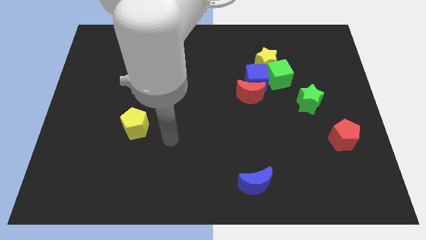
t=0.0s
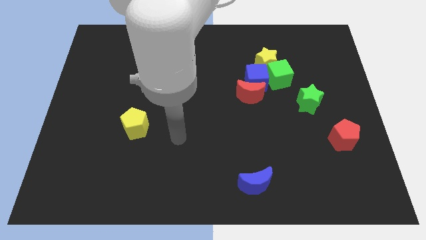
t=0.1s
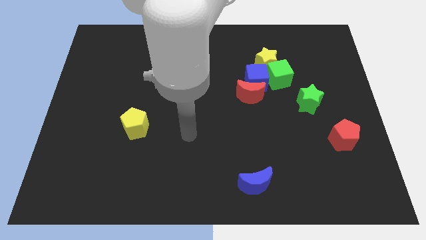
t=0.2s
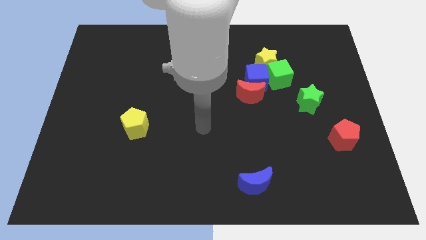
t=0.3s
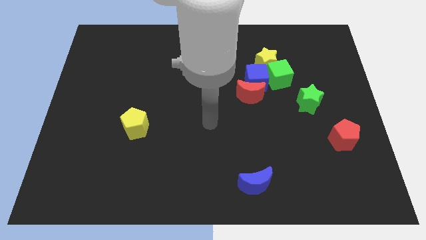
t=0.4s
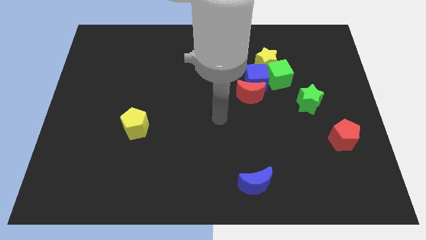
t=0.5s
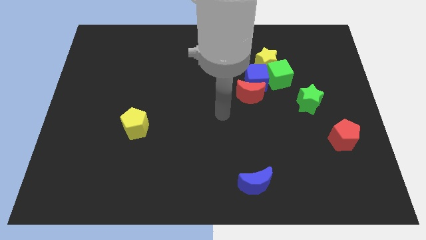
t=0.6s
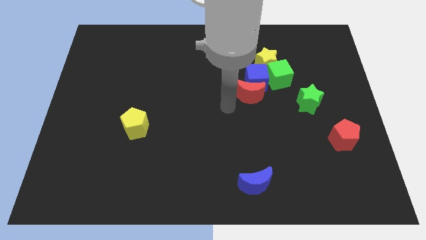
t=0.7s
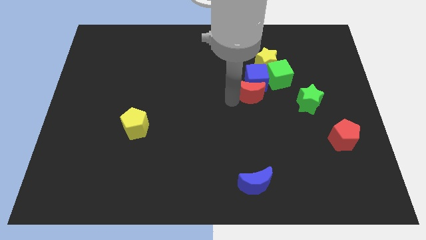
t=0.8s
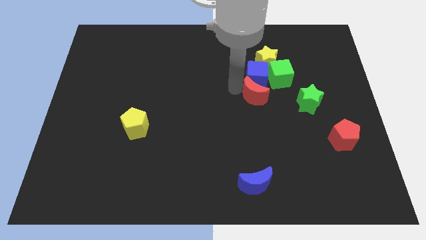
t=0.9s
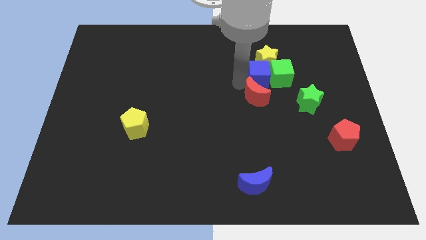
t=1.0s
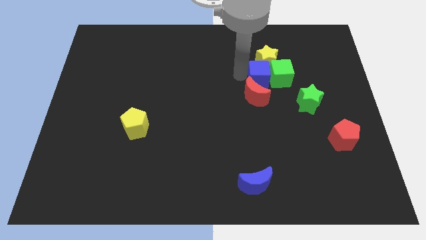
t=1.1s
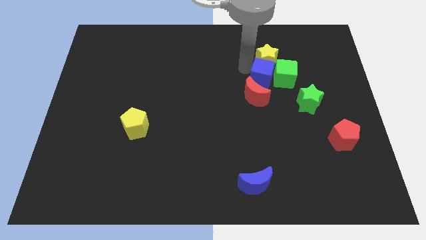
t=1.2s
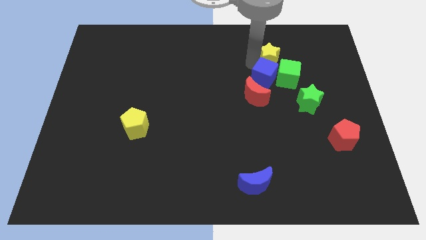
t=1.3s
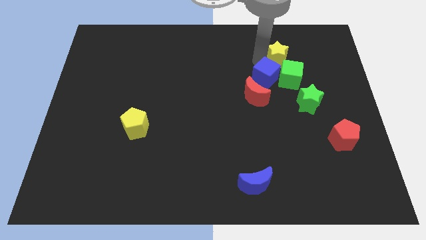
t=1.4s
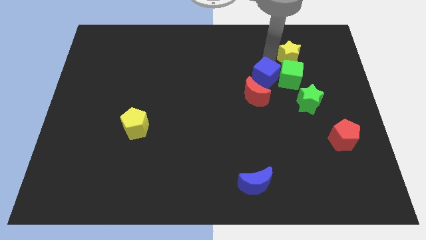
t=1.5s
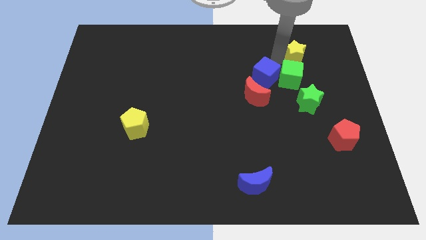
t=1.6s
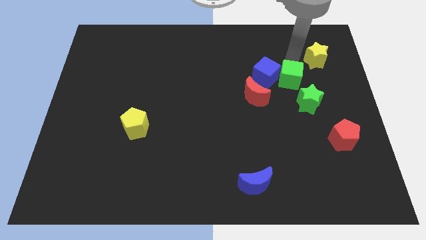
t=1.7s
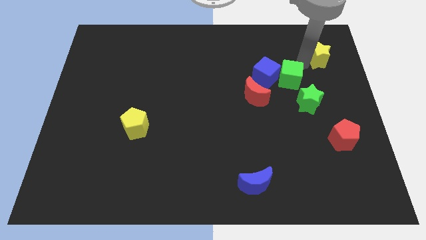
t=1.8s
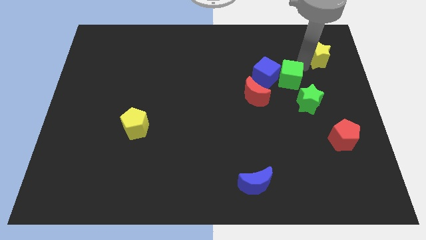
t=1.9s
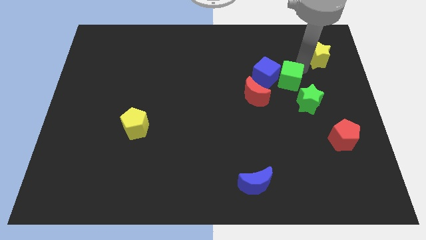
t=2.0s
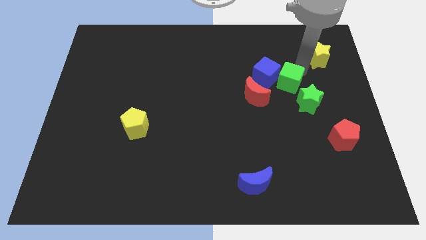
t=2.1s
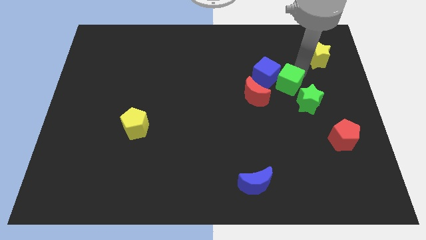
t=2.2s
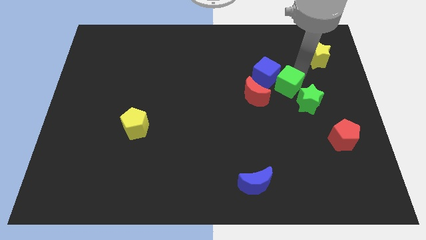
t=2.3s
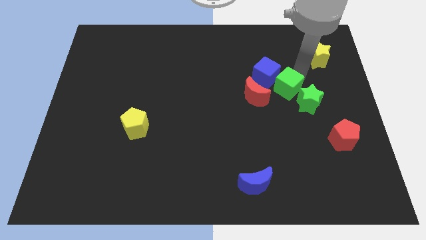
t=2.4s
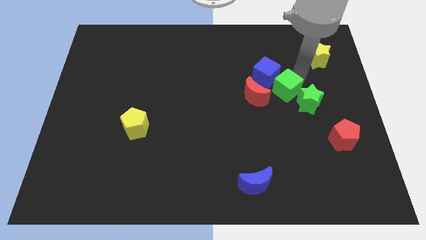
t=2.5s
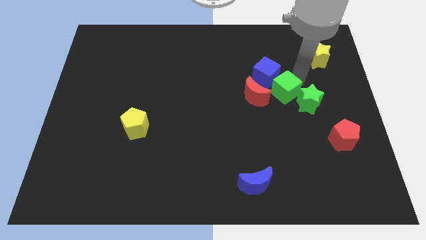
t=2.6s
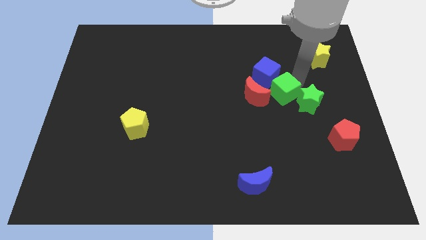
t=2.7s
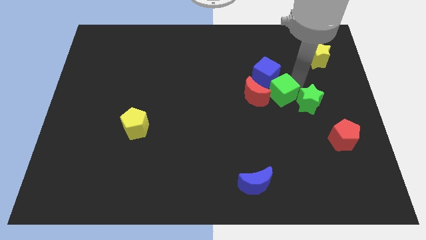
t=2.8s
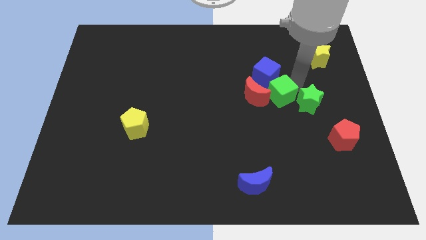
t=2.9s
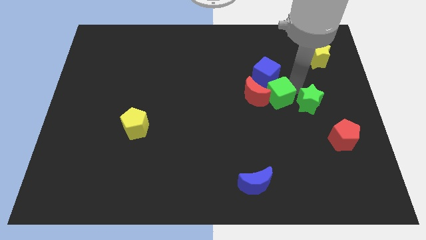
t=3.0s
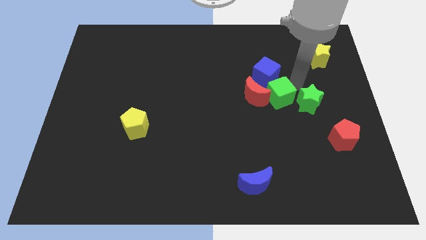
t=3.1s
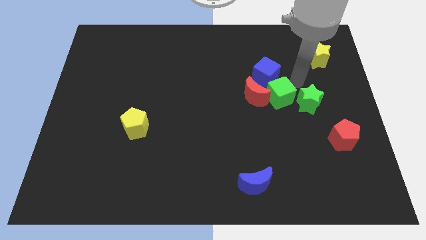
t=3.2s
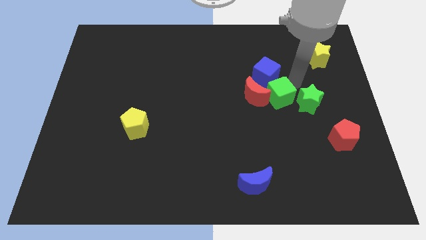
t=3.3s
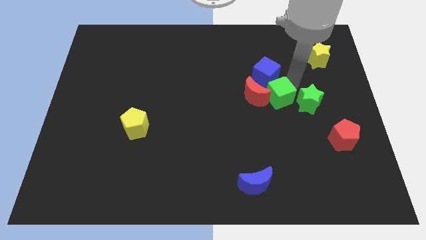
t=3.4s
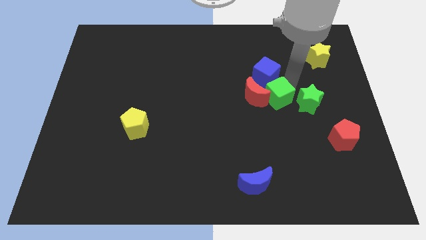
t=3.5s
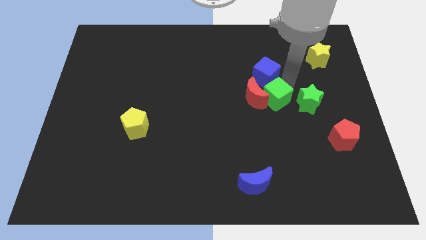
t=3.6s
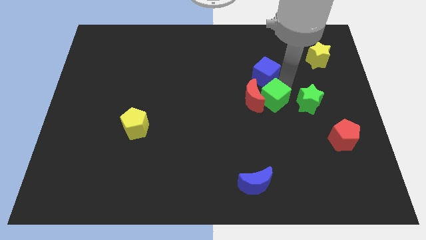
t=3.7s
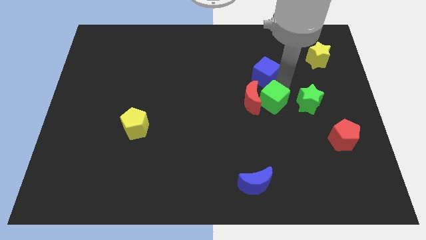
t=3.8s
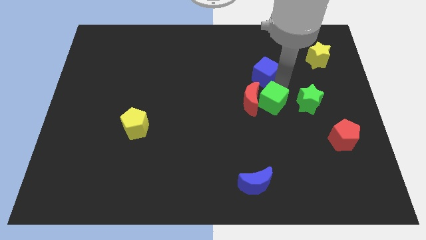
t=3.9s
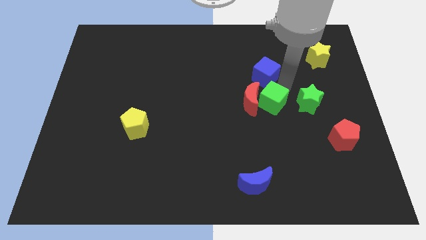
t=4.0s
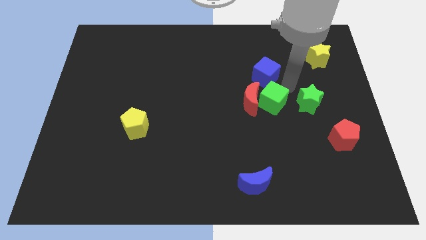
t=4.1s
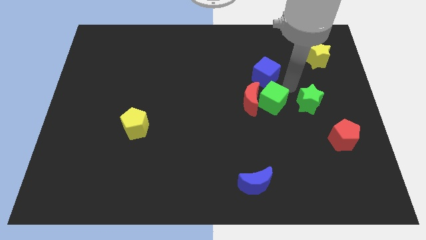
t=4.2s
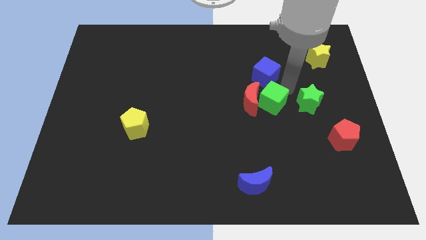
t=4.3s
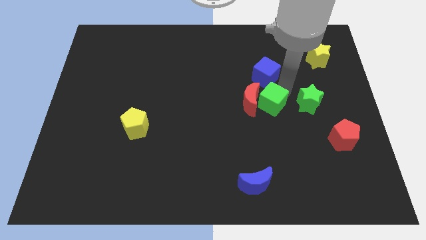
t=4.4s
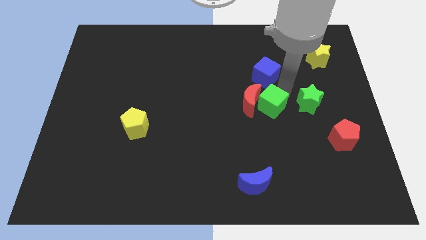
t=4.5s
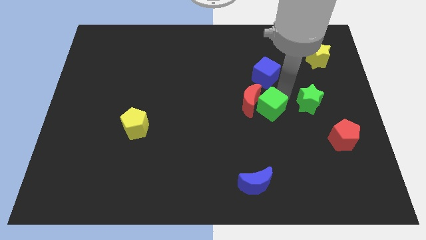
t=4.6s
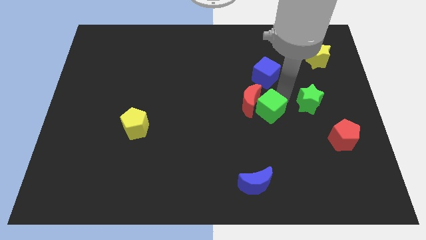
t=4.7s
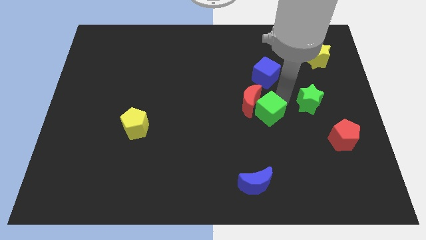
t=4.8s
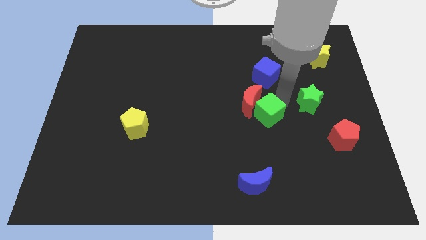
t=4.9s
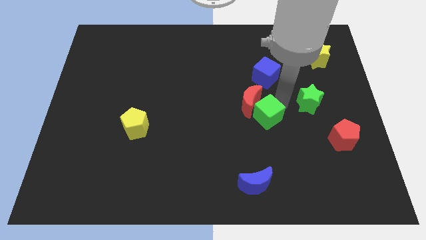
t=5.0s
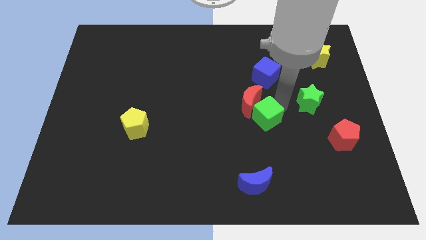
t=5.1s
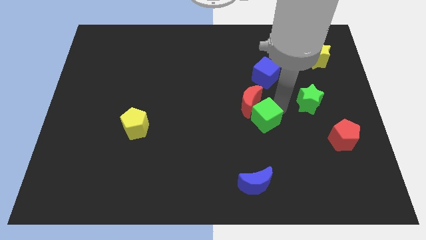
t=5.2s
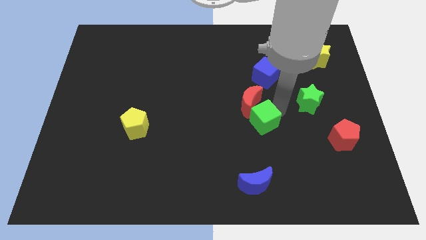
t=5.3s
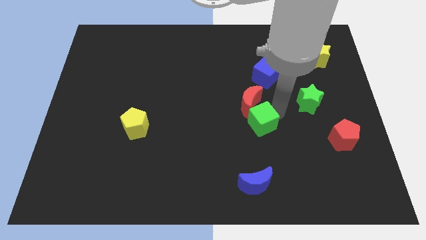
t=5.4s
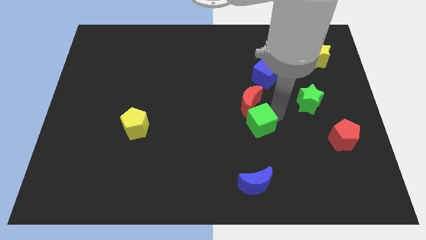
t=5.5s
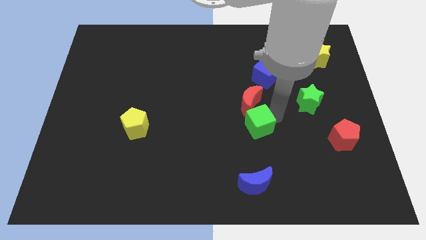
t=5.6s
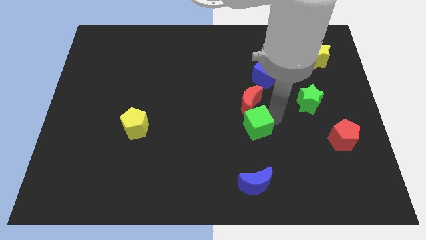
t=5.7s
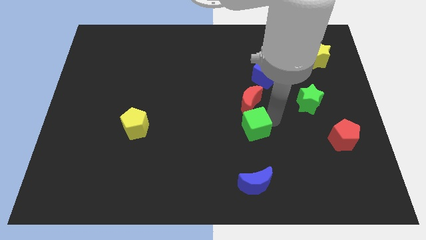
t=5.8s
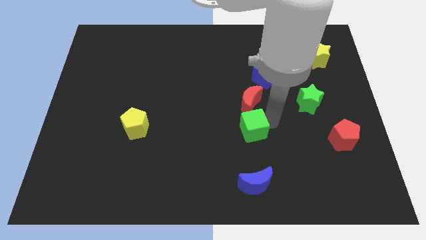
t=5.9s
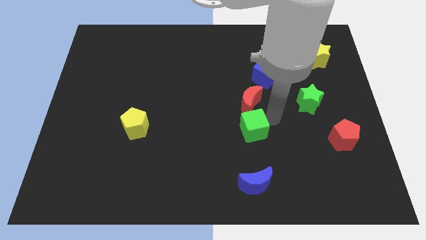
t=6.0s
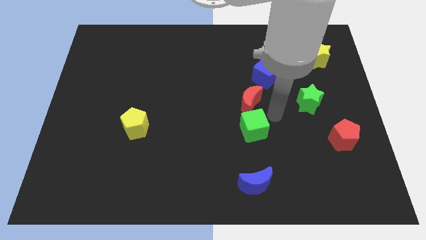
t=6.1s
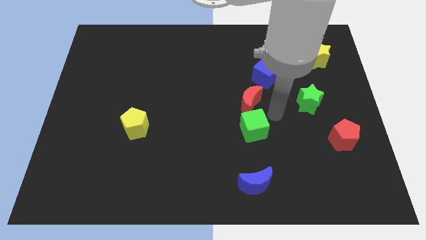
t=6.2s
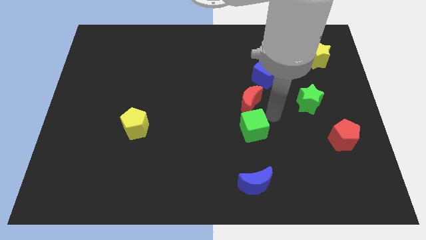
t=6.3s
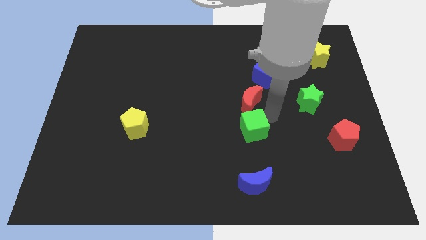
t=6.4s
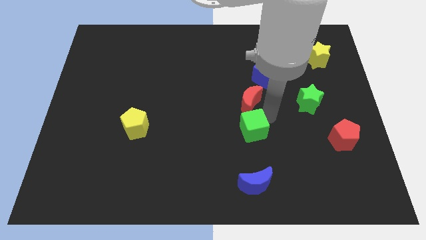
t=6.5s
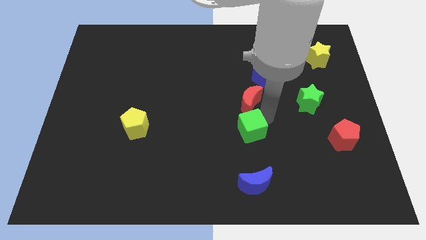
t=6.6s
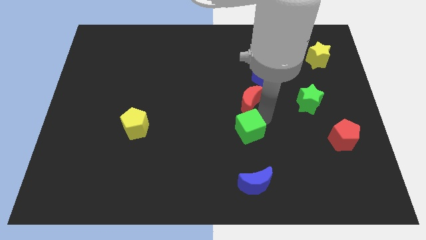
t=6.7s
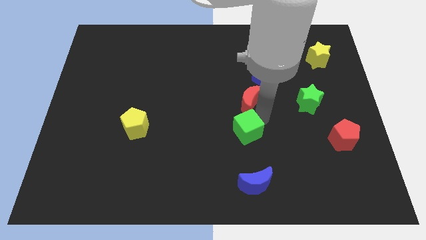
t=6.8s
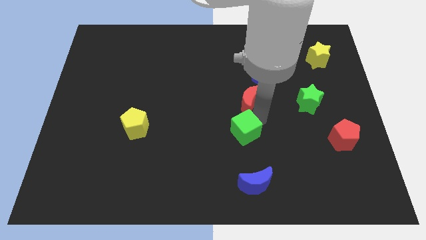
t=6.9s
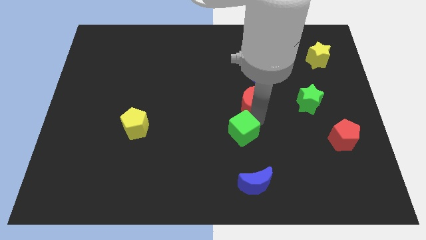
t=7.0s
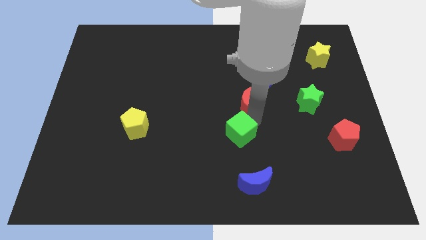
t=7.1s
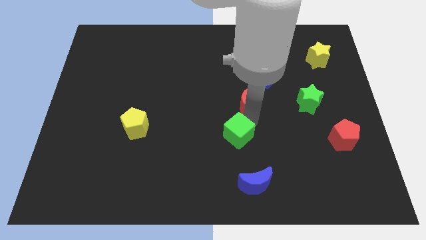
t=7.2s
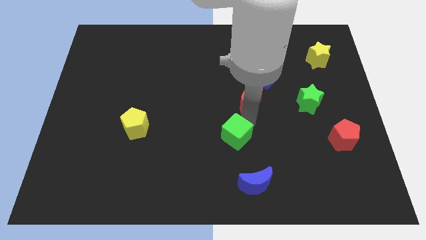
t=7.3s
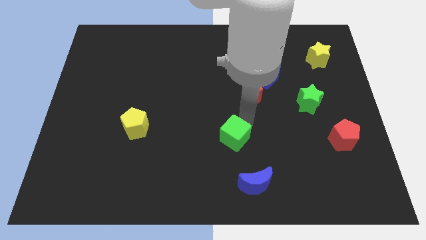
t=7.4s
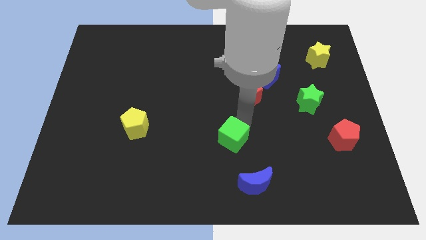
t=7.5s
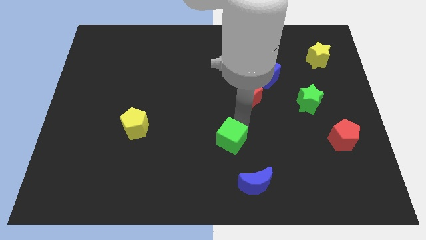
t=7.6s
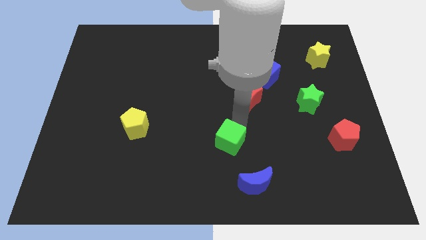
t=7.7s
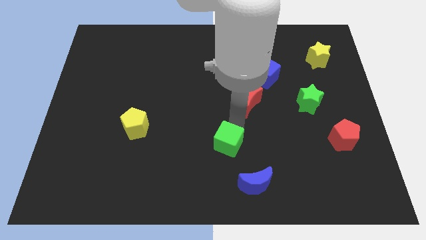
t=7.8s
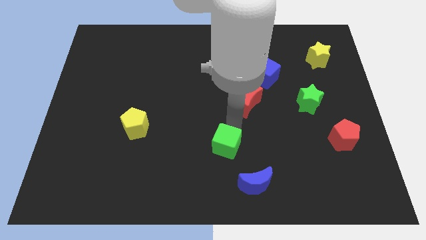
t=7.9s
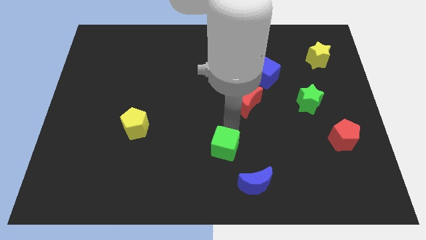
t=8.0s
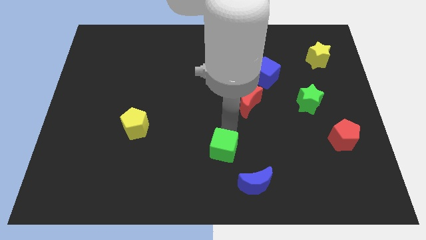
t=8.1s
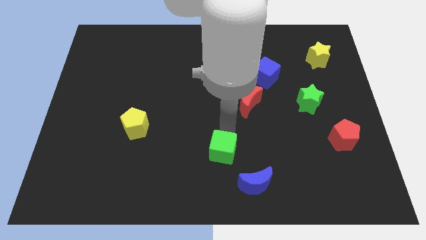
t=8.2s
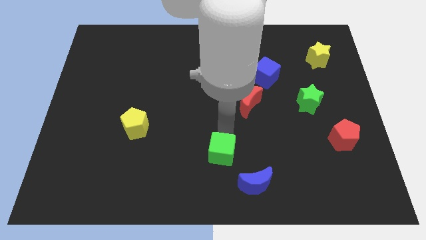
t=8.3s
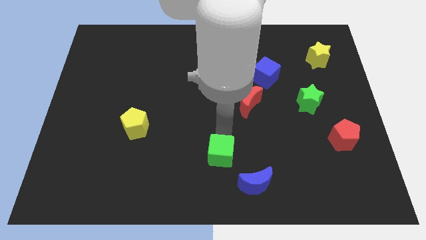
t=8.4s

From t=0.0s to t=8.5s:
put the green cube to the bottom side
